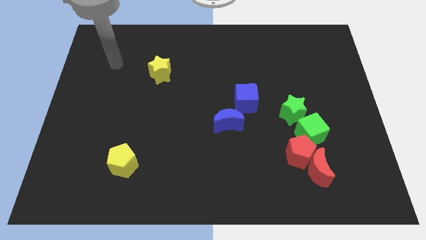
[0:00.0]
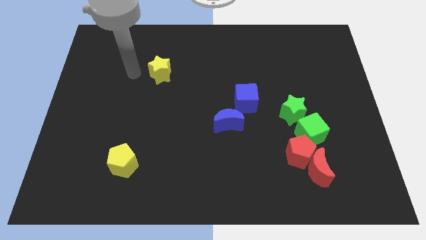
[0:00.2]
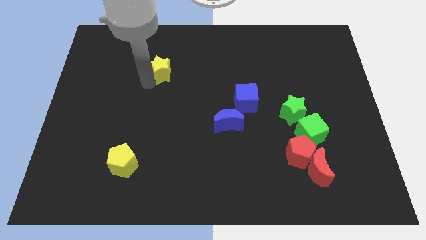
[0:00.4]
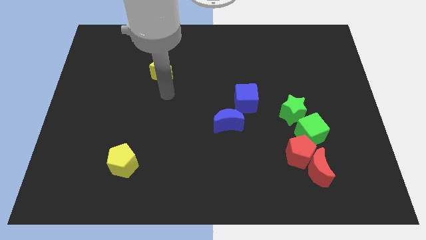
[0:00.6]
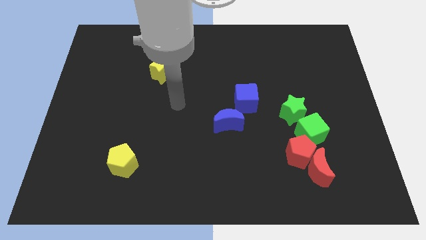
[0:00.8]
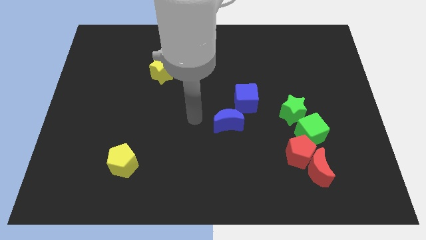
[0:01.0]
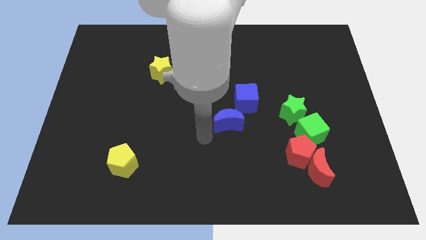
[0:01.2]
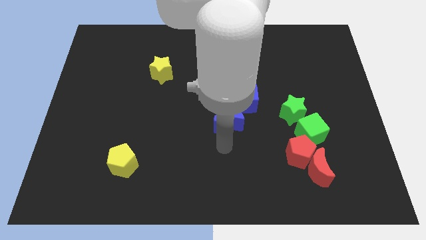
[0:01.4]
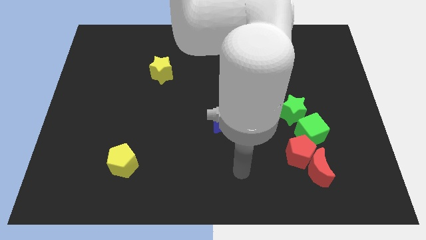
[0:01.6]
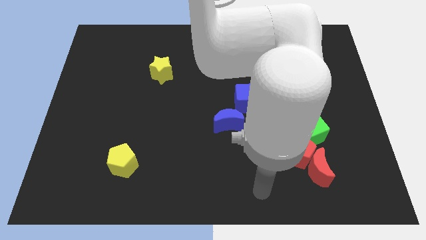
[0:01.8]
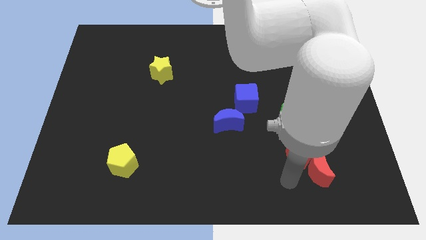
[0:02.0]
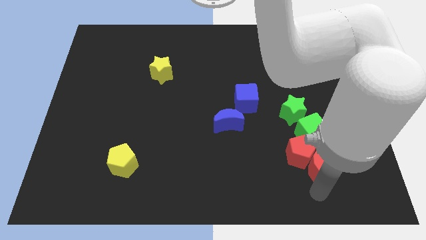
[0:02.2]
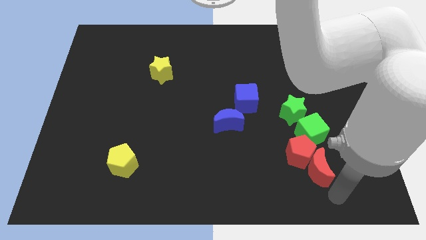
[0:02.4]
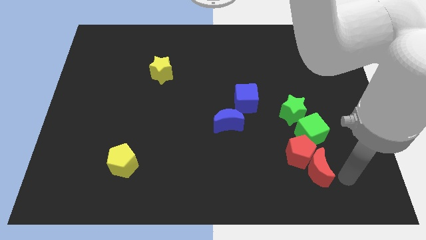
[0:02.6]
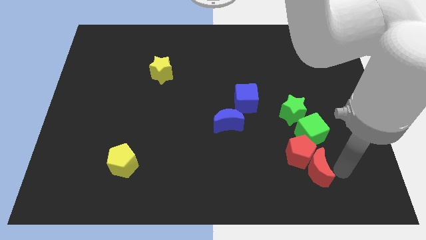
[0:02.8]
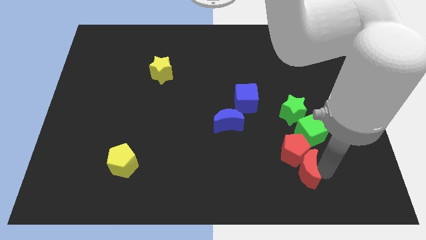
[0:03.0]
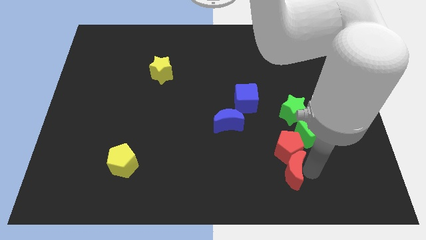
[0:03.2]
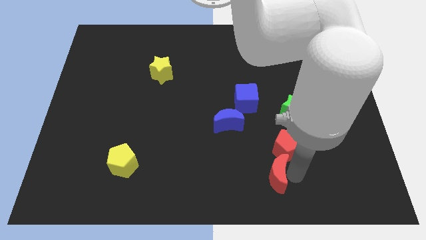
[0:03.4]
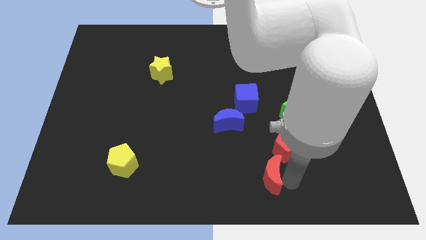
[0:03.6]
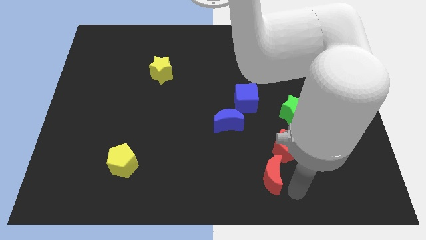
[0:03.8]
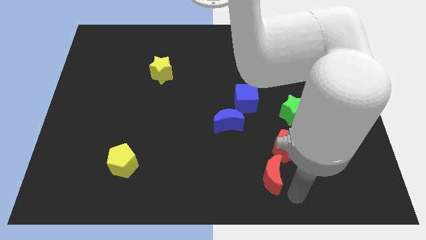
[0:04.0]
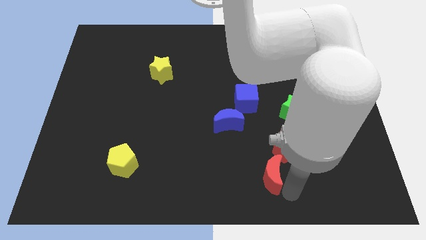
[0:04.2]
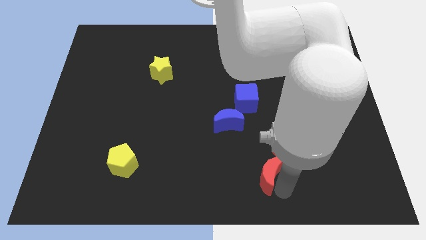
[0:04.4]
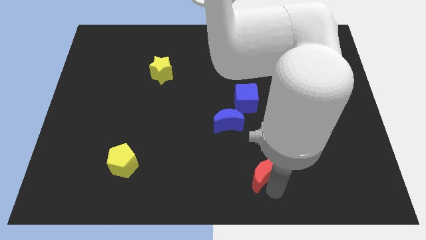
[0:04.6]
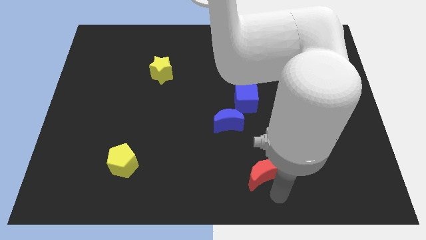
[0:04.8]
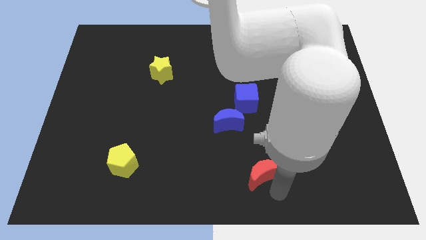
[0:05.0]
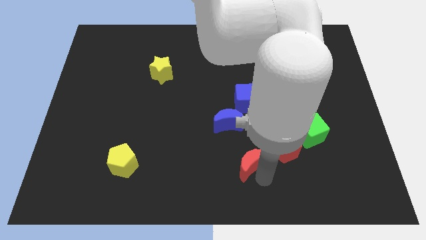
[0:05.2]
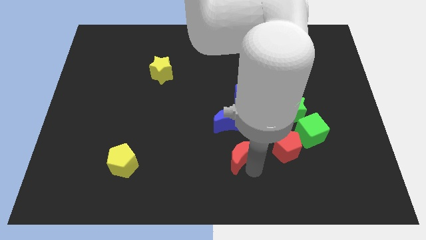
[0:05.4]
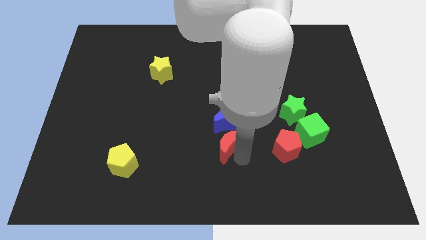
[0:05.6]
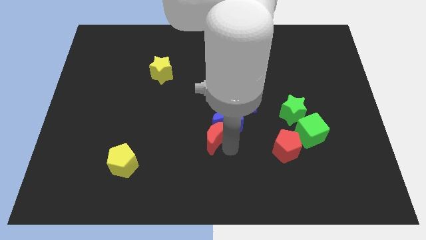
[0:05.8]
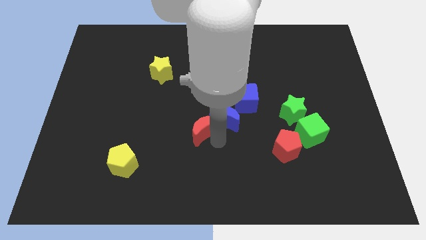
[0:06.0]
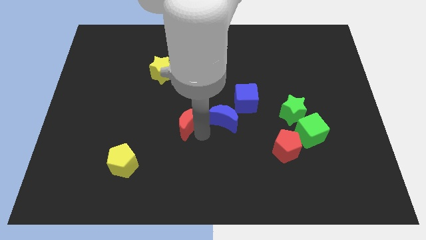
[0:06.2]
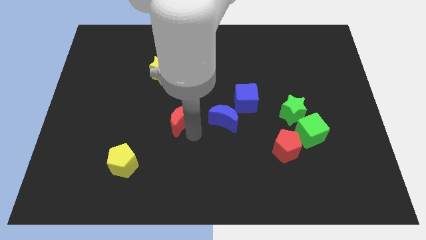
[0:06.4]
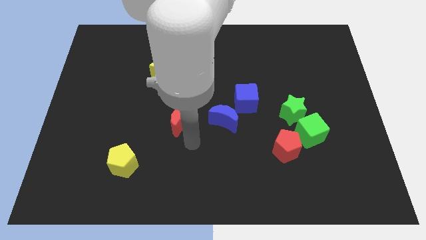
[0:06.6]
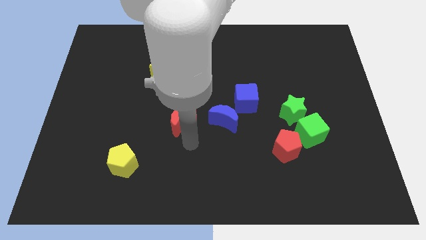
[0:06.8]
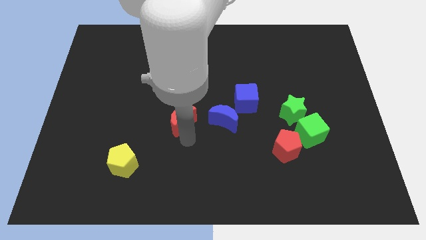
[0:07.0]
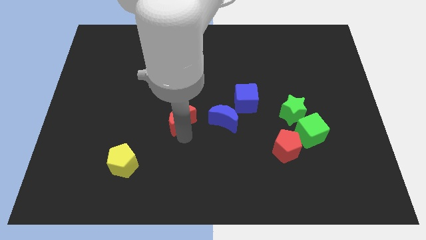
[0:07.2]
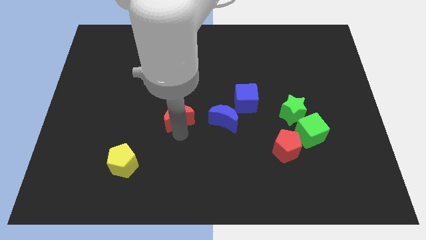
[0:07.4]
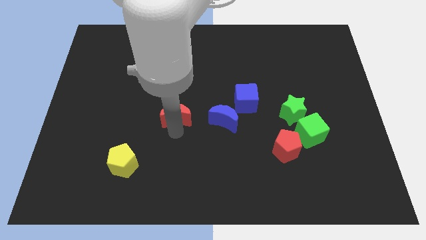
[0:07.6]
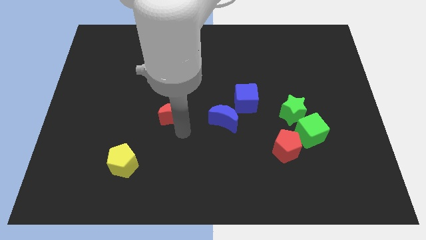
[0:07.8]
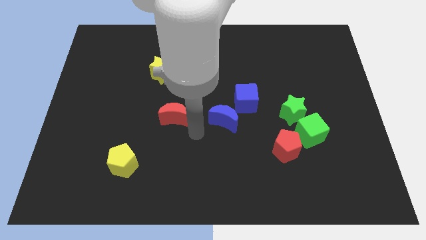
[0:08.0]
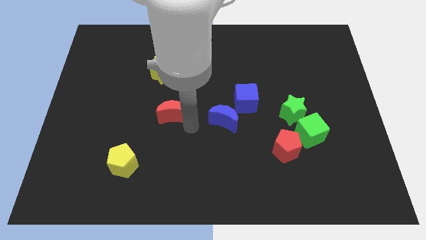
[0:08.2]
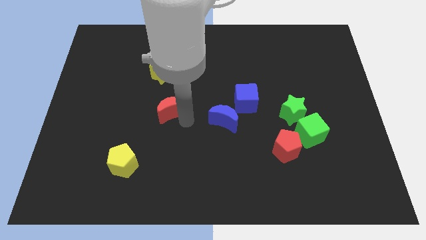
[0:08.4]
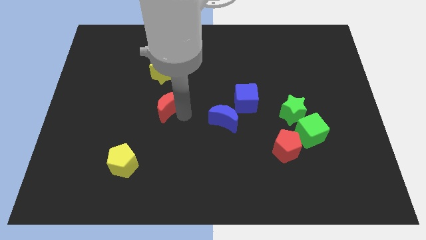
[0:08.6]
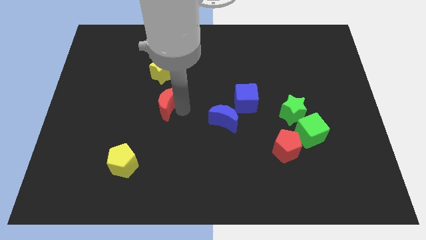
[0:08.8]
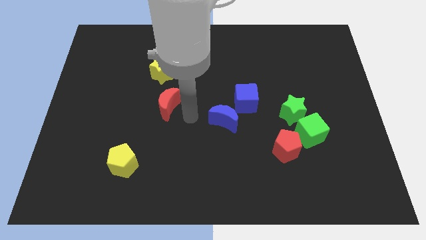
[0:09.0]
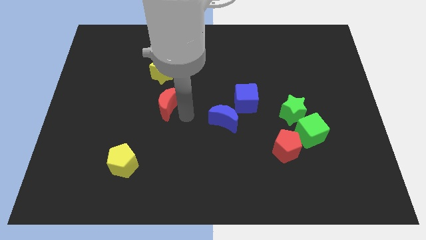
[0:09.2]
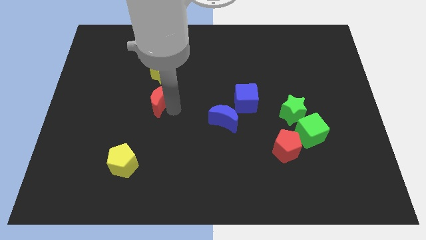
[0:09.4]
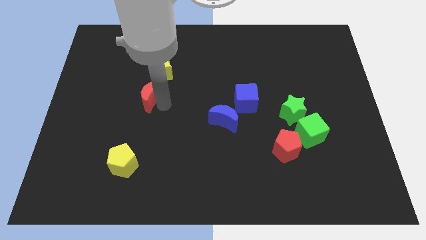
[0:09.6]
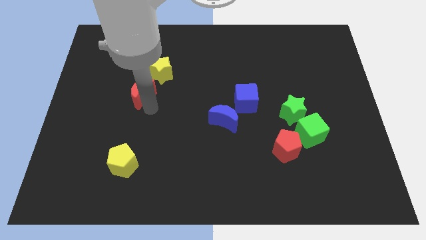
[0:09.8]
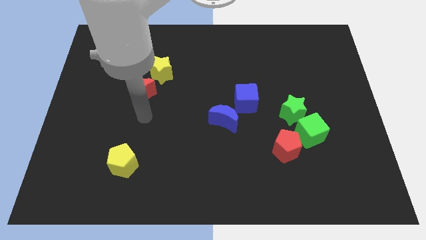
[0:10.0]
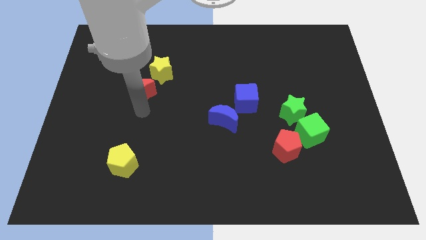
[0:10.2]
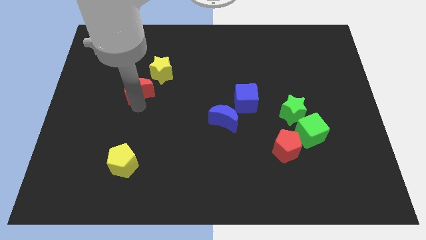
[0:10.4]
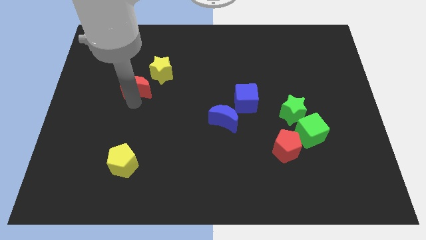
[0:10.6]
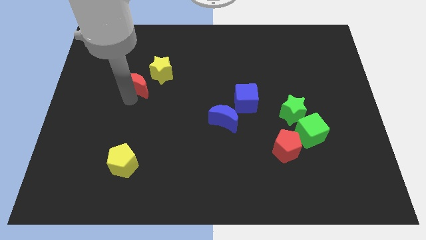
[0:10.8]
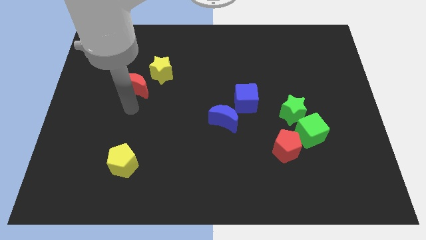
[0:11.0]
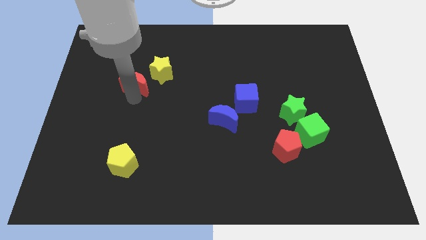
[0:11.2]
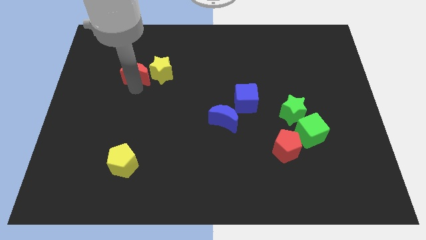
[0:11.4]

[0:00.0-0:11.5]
slide the red moon to the top left side of the yellow star
